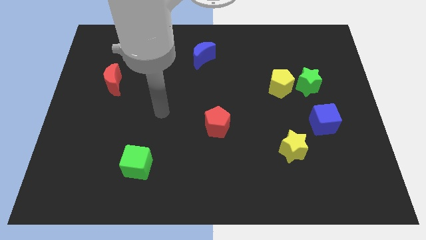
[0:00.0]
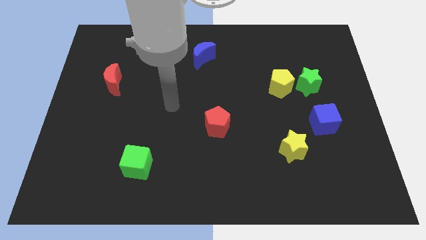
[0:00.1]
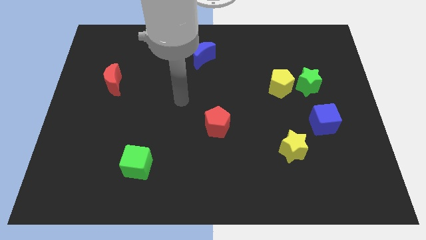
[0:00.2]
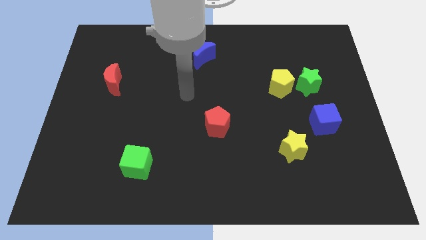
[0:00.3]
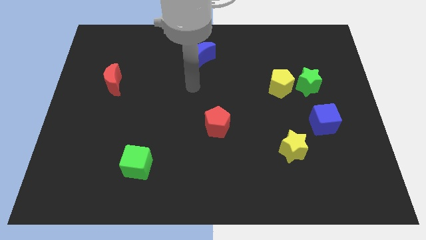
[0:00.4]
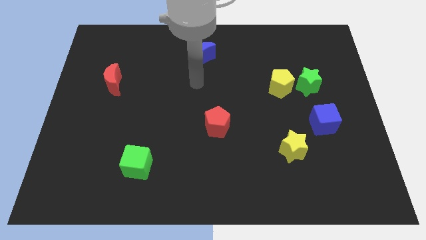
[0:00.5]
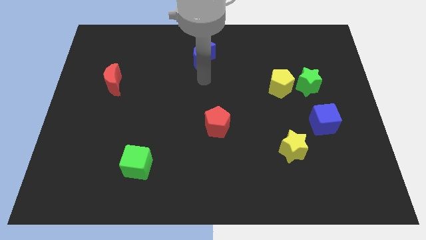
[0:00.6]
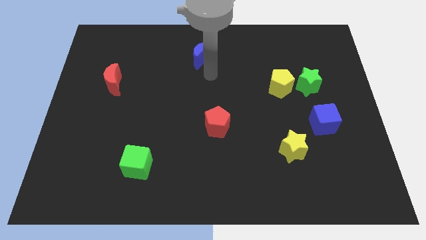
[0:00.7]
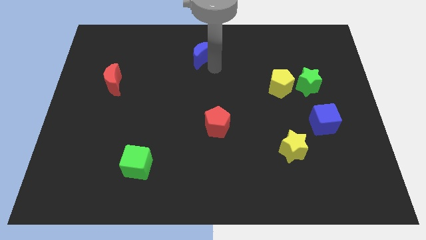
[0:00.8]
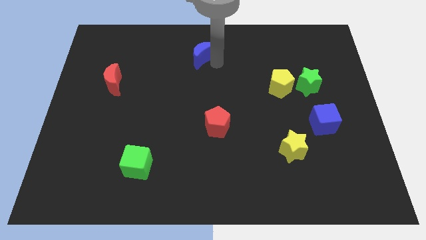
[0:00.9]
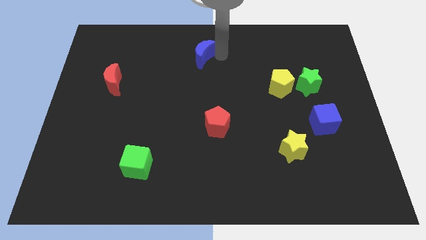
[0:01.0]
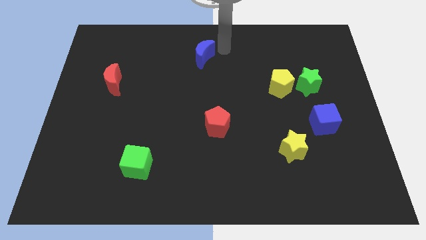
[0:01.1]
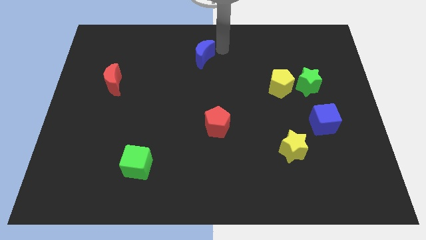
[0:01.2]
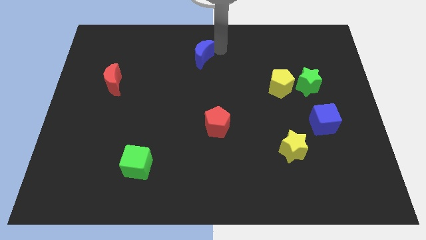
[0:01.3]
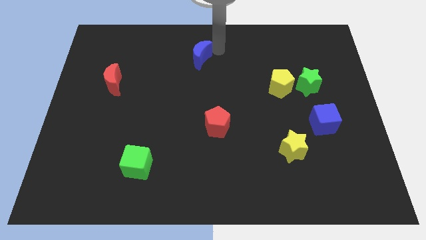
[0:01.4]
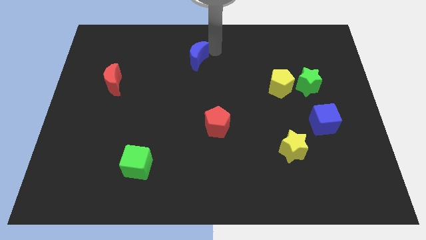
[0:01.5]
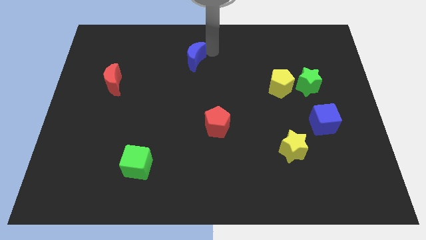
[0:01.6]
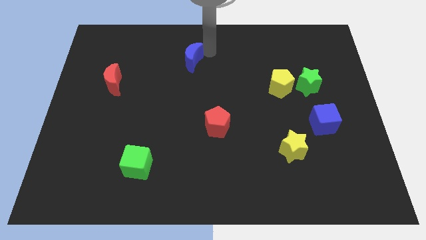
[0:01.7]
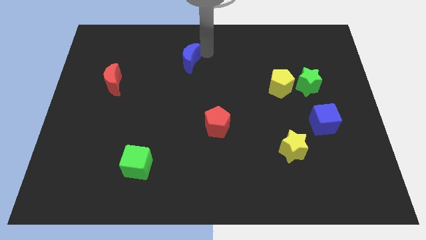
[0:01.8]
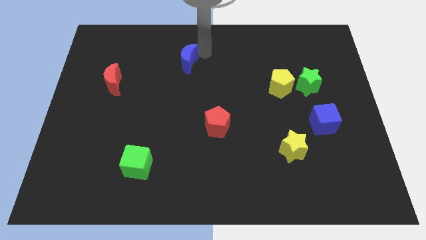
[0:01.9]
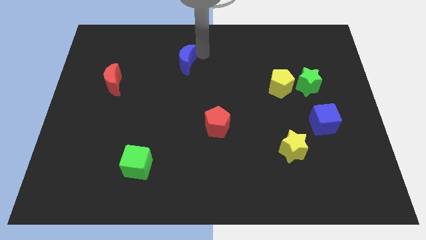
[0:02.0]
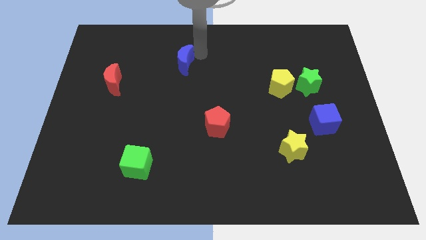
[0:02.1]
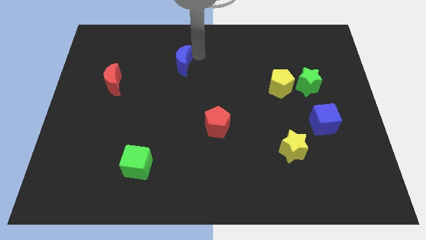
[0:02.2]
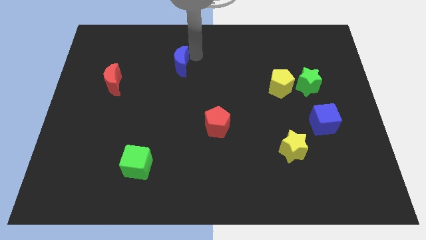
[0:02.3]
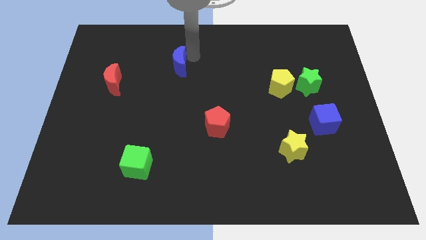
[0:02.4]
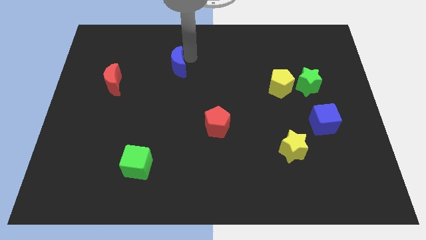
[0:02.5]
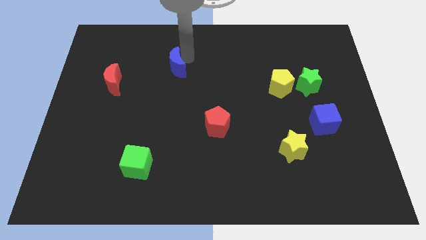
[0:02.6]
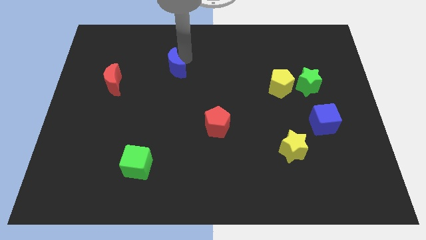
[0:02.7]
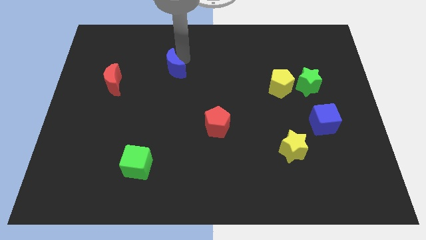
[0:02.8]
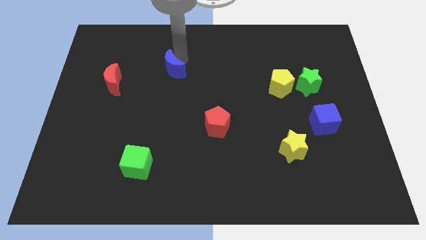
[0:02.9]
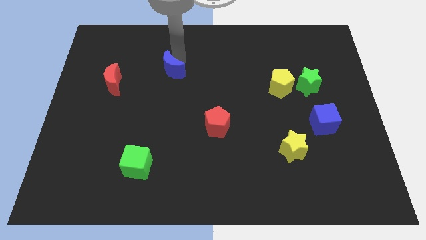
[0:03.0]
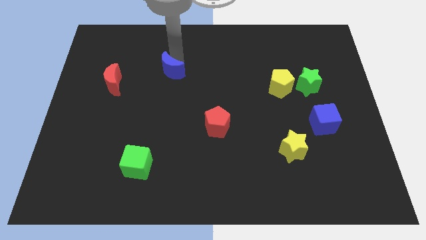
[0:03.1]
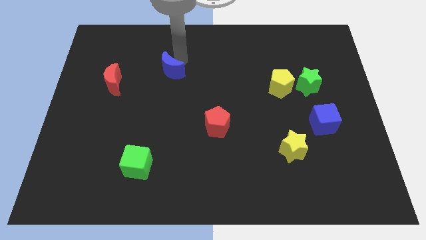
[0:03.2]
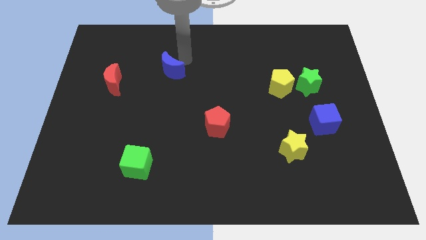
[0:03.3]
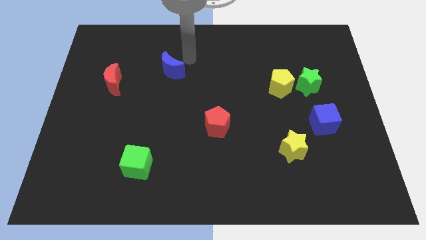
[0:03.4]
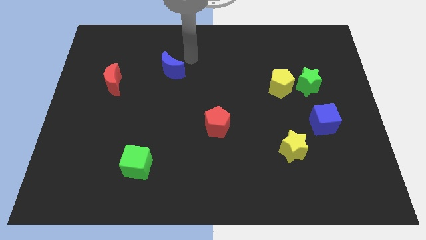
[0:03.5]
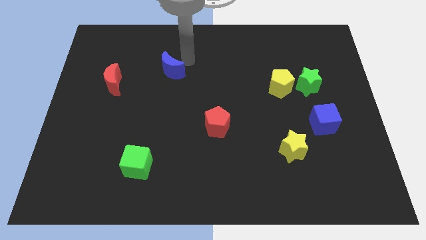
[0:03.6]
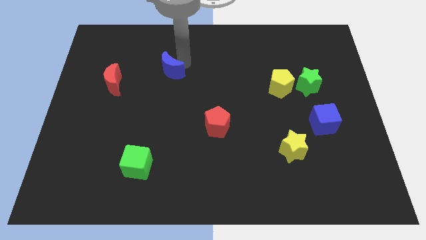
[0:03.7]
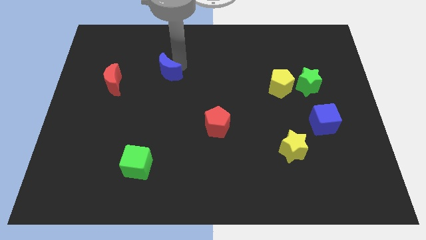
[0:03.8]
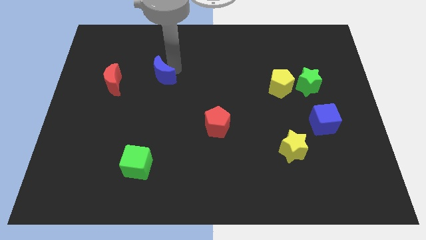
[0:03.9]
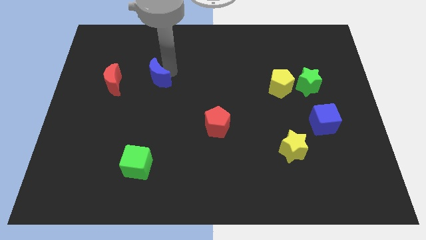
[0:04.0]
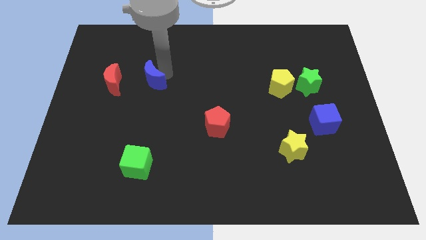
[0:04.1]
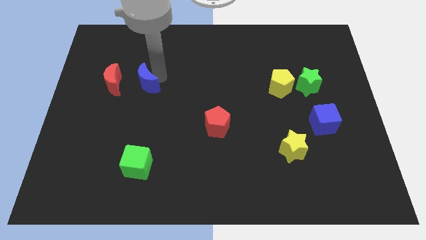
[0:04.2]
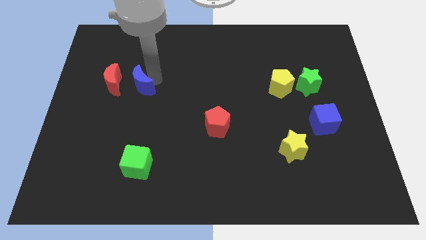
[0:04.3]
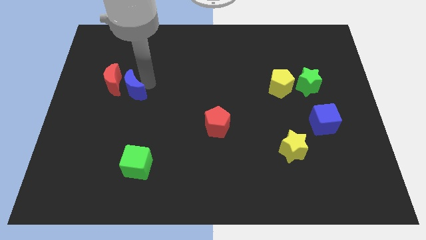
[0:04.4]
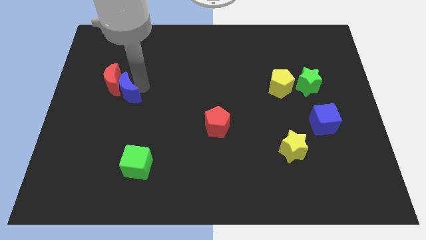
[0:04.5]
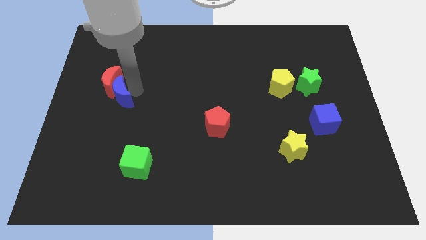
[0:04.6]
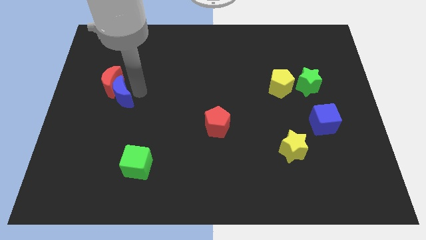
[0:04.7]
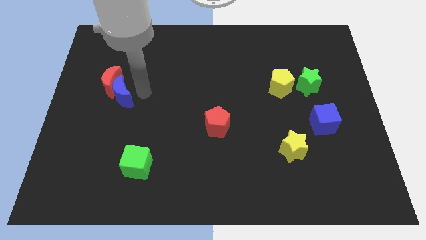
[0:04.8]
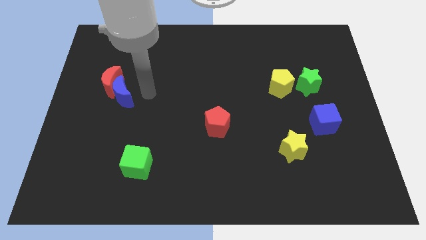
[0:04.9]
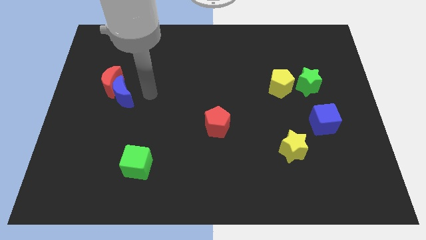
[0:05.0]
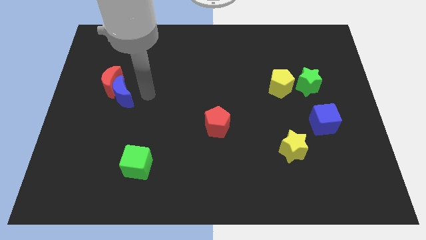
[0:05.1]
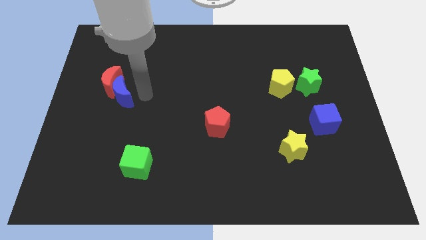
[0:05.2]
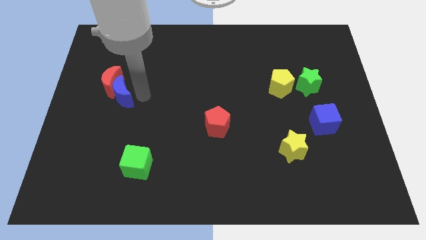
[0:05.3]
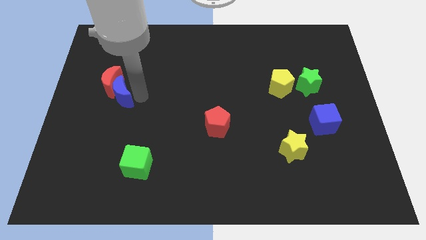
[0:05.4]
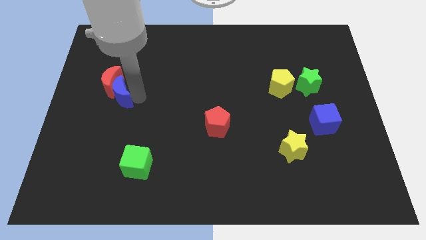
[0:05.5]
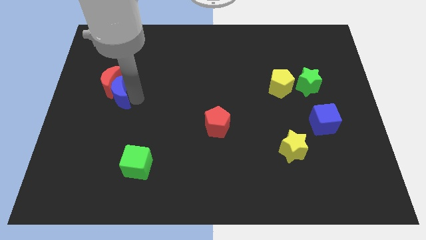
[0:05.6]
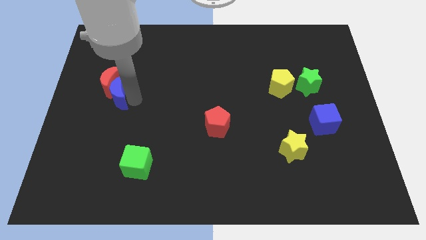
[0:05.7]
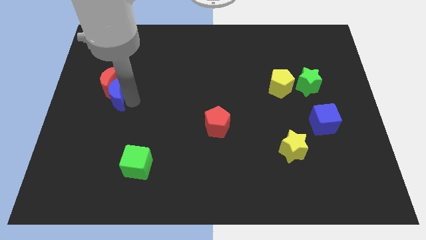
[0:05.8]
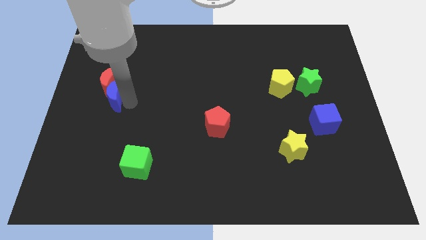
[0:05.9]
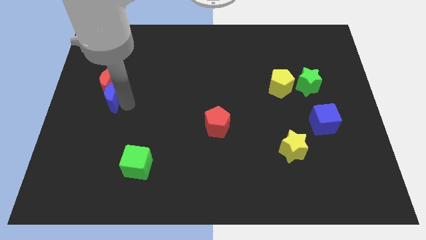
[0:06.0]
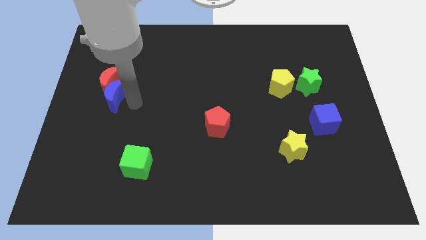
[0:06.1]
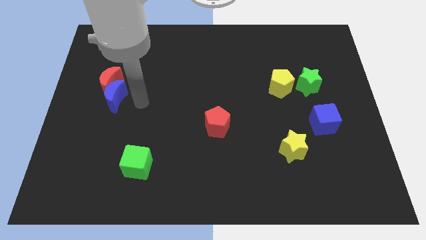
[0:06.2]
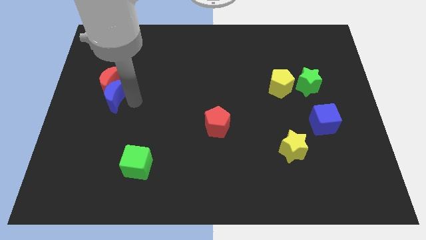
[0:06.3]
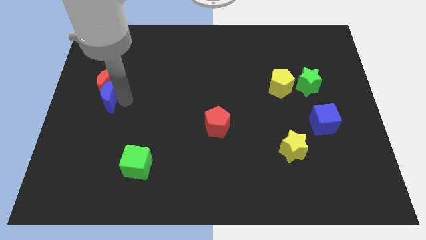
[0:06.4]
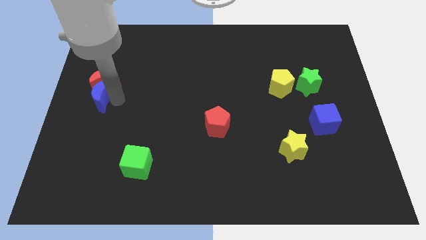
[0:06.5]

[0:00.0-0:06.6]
put the blue moon to the center left
